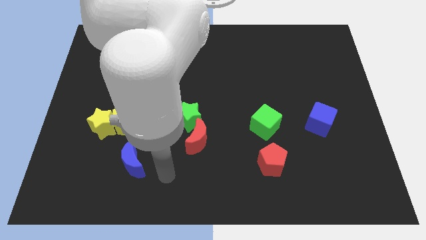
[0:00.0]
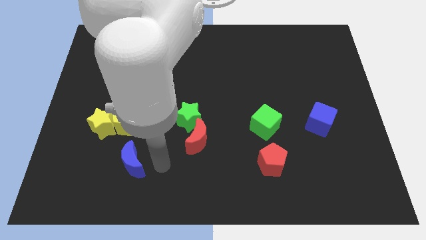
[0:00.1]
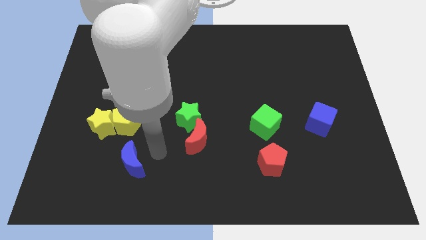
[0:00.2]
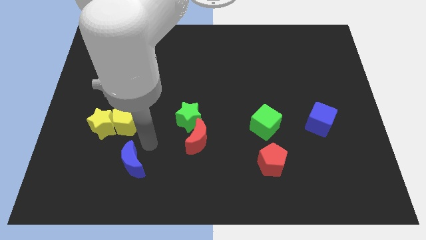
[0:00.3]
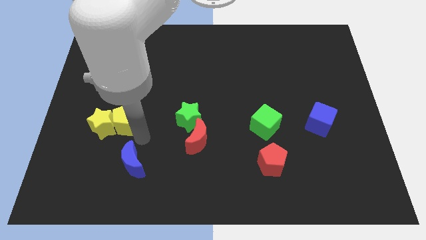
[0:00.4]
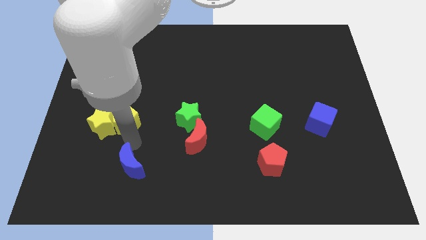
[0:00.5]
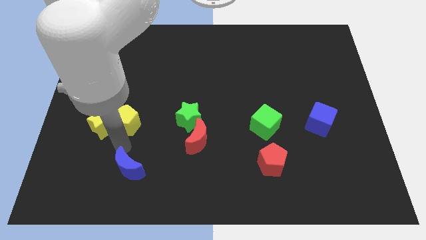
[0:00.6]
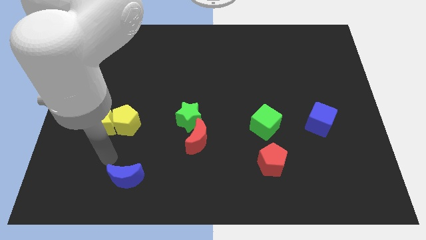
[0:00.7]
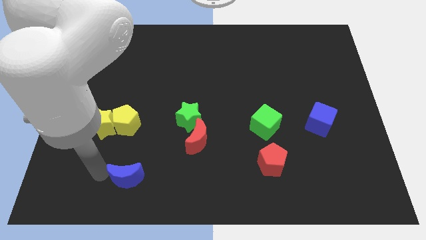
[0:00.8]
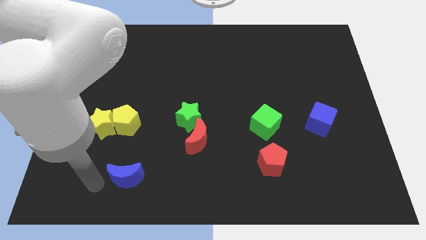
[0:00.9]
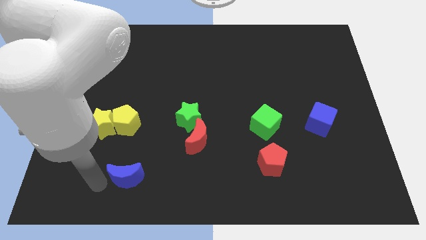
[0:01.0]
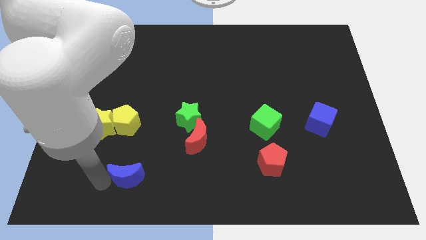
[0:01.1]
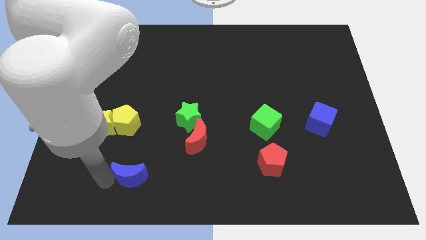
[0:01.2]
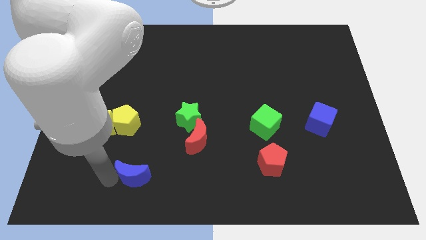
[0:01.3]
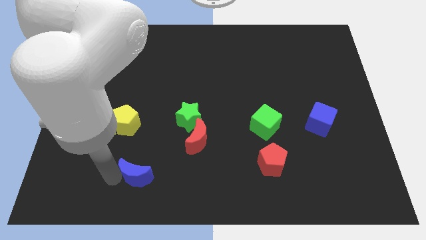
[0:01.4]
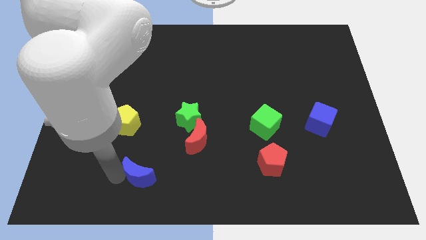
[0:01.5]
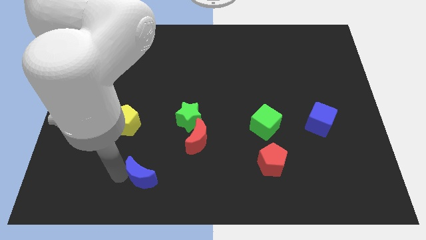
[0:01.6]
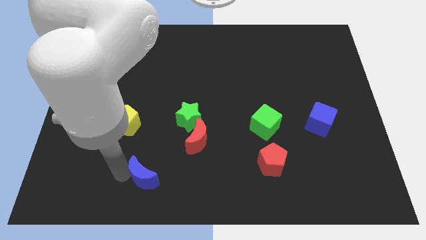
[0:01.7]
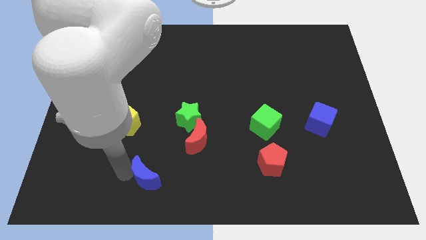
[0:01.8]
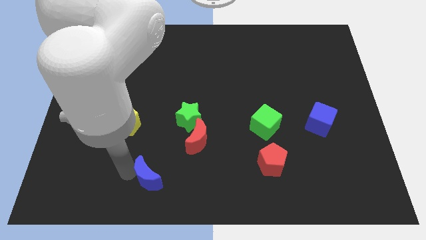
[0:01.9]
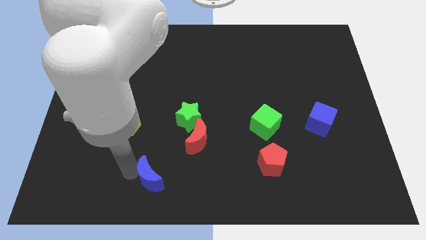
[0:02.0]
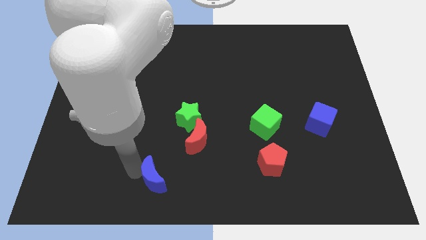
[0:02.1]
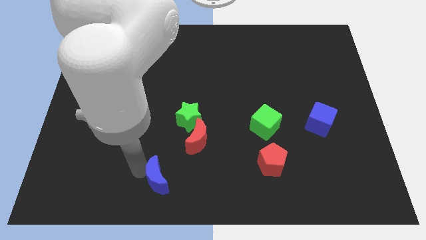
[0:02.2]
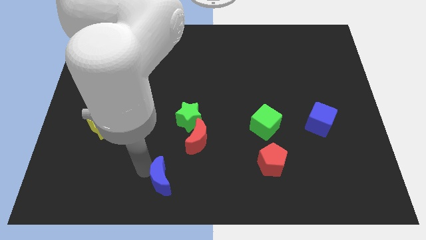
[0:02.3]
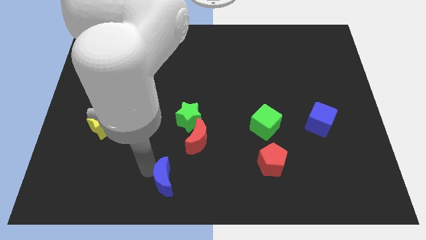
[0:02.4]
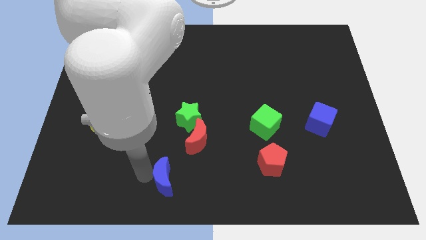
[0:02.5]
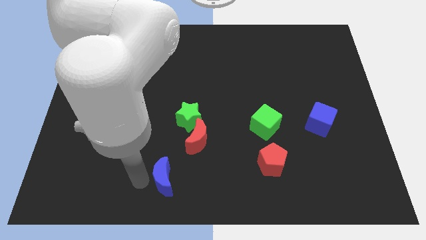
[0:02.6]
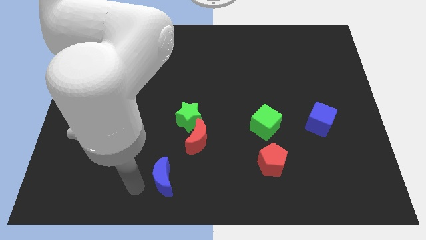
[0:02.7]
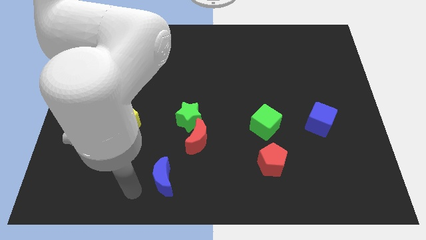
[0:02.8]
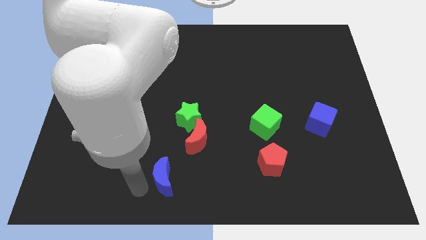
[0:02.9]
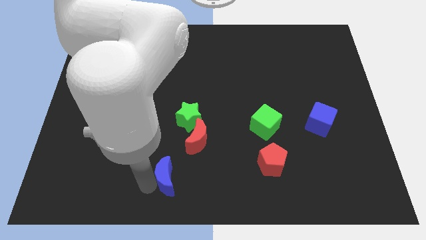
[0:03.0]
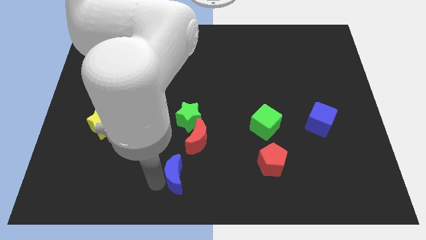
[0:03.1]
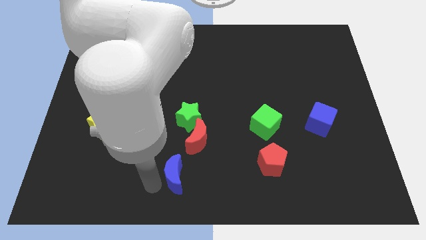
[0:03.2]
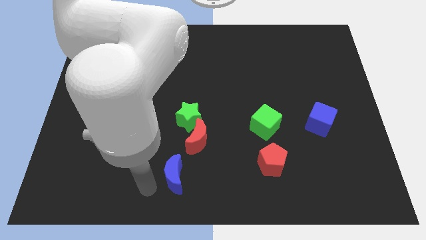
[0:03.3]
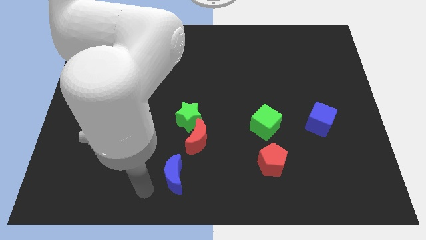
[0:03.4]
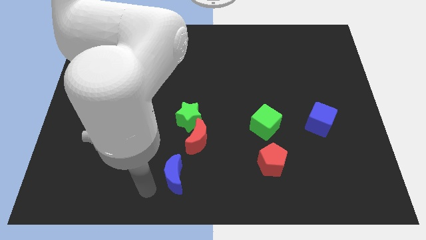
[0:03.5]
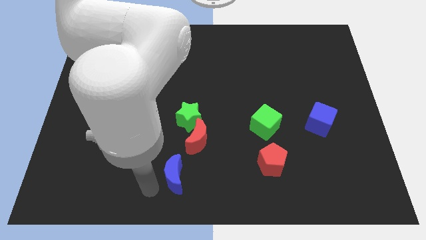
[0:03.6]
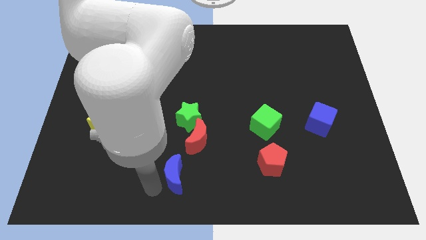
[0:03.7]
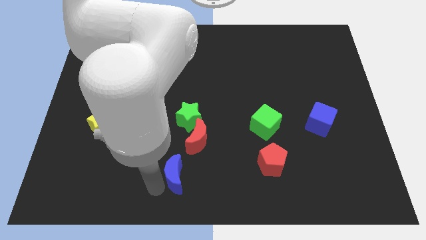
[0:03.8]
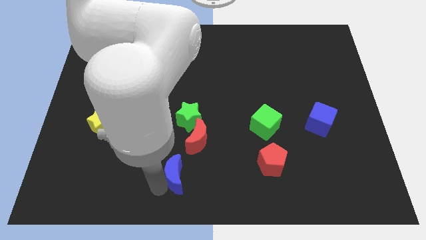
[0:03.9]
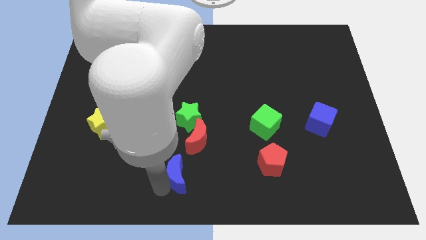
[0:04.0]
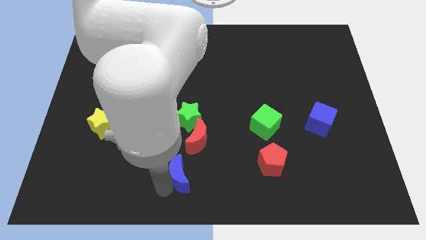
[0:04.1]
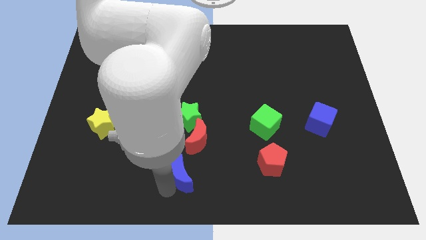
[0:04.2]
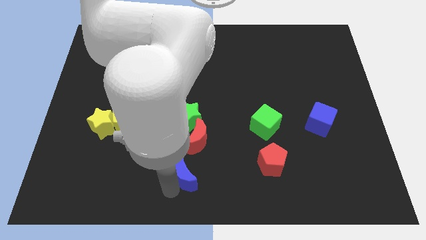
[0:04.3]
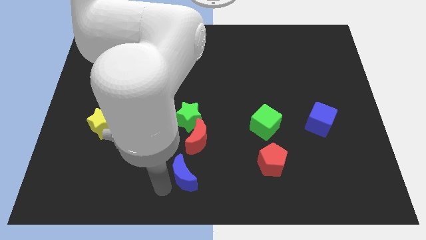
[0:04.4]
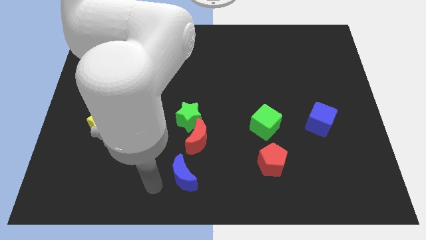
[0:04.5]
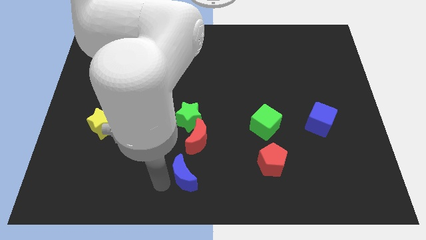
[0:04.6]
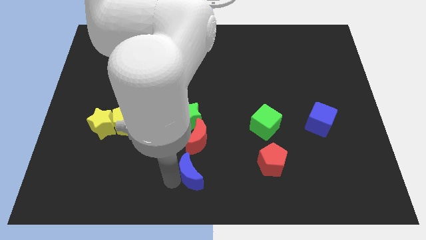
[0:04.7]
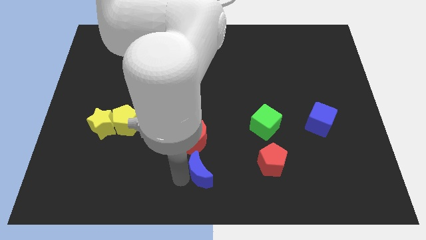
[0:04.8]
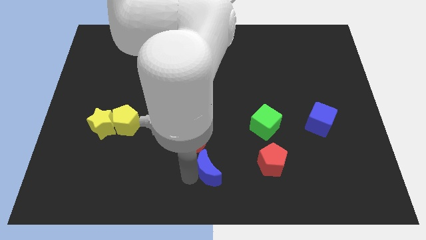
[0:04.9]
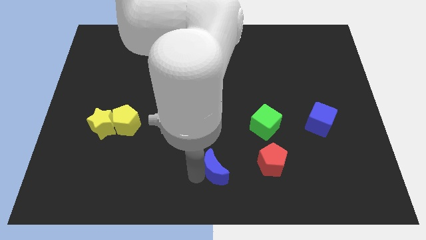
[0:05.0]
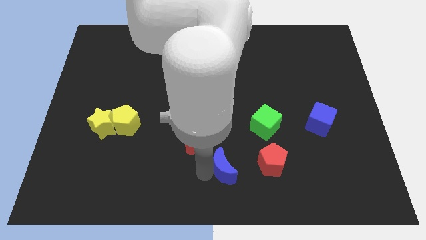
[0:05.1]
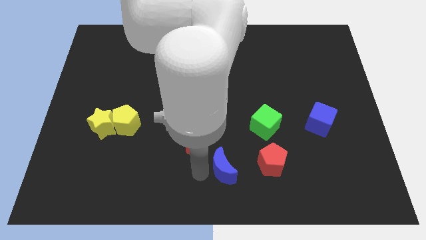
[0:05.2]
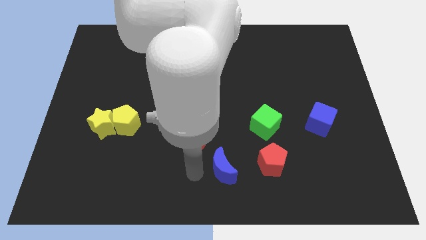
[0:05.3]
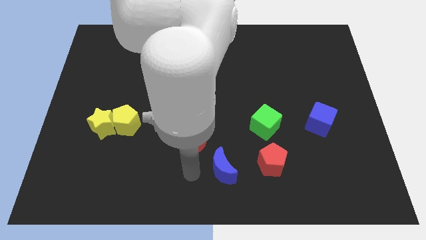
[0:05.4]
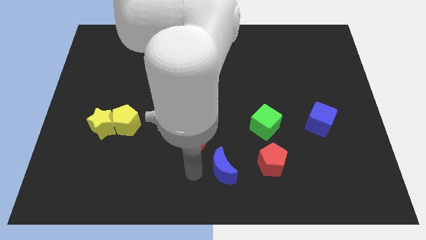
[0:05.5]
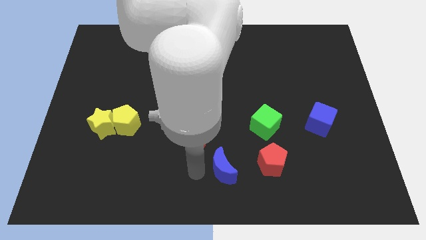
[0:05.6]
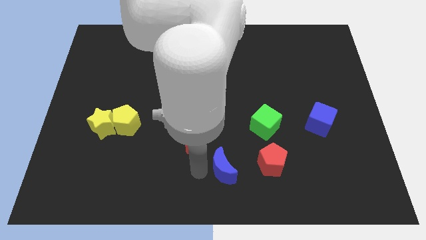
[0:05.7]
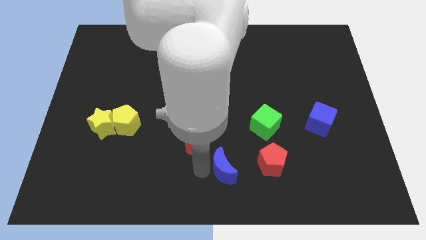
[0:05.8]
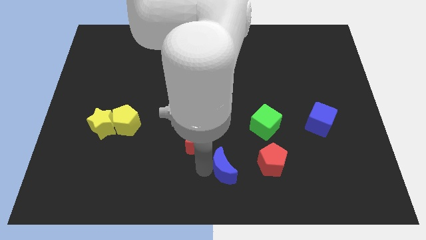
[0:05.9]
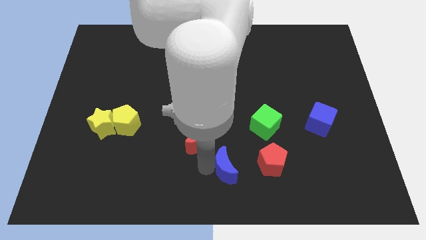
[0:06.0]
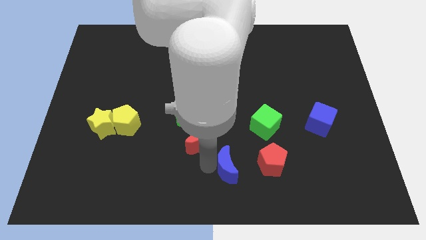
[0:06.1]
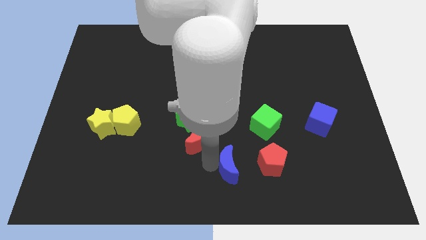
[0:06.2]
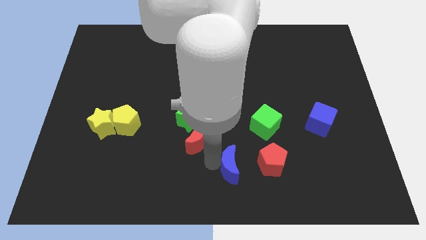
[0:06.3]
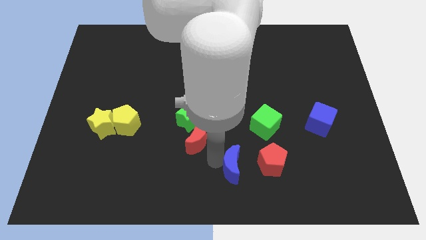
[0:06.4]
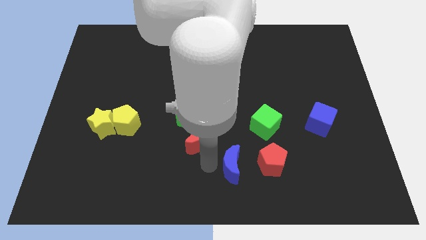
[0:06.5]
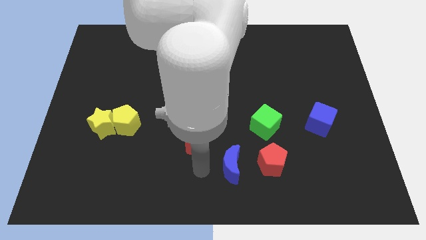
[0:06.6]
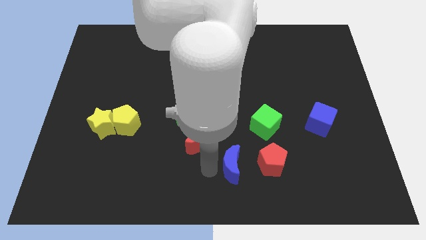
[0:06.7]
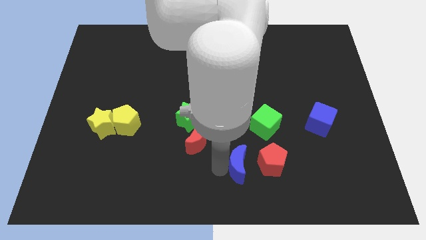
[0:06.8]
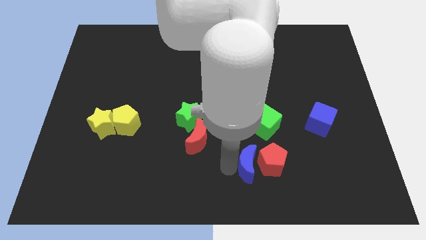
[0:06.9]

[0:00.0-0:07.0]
push the blue moon next to the red pentagon

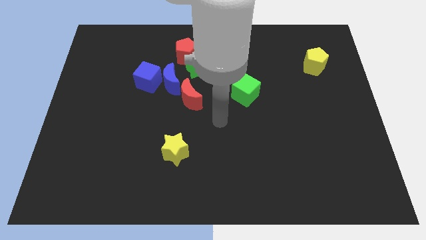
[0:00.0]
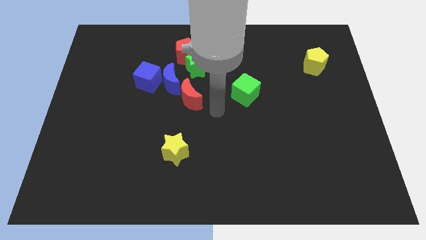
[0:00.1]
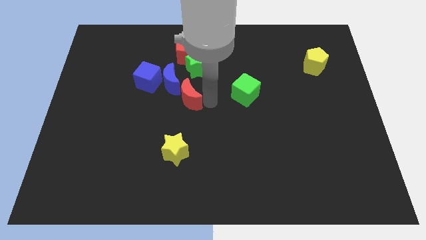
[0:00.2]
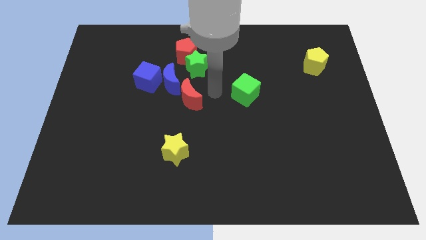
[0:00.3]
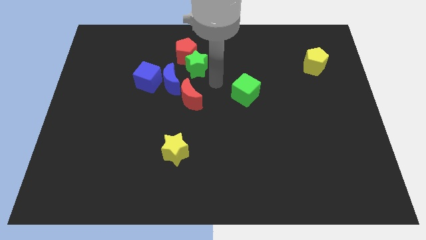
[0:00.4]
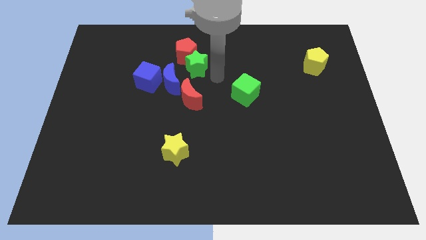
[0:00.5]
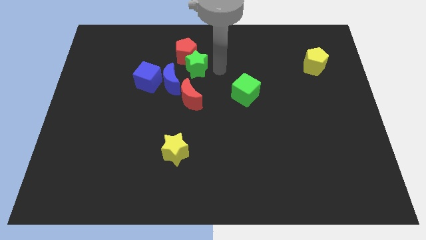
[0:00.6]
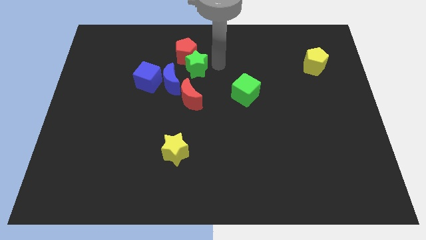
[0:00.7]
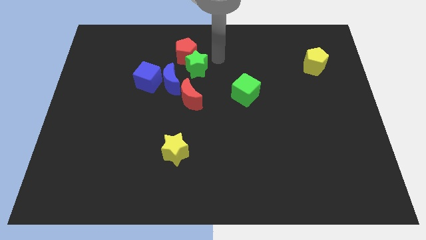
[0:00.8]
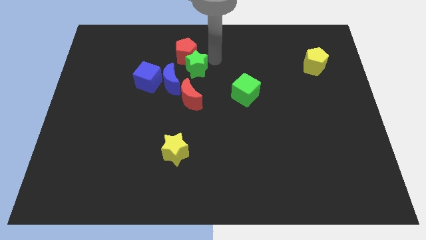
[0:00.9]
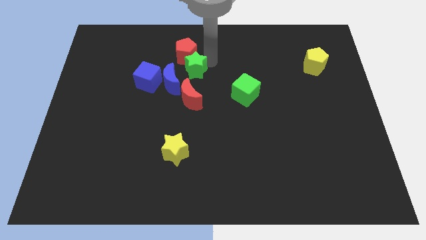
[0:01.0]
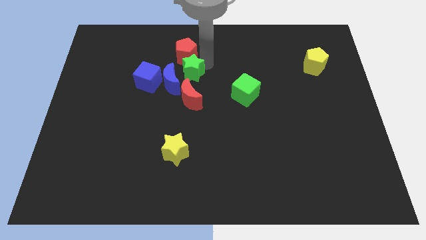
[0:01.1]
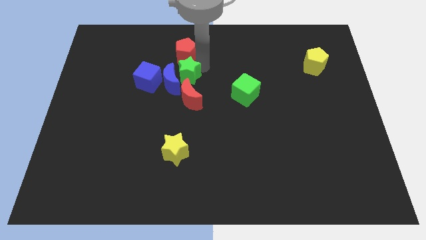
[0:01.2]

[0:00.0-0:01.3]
move the green star next to the blue moon
